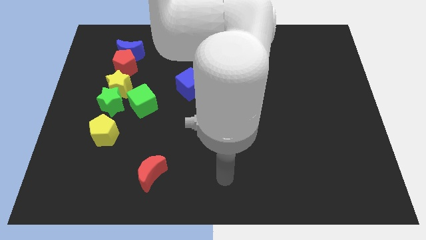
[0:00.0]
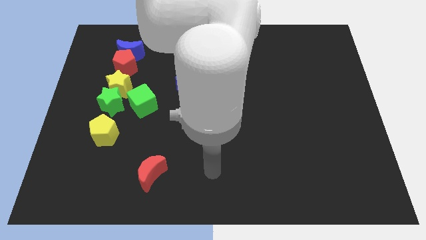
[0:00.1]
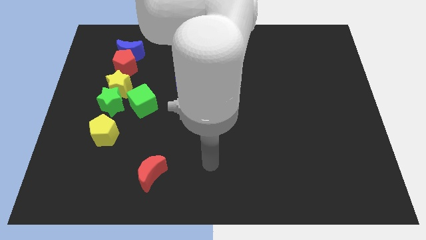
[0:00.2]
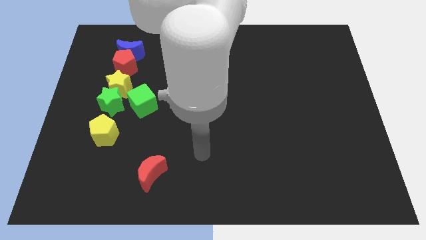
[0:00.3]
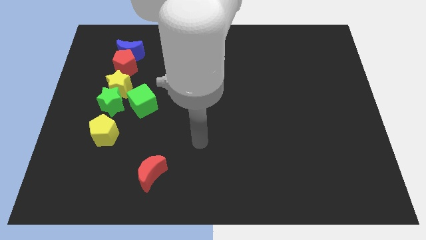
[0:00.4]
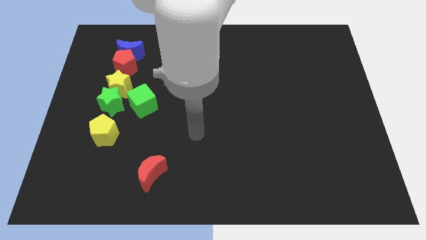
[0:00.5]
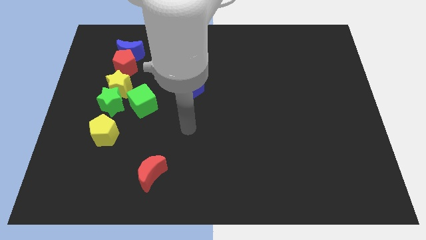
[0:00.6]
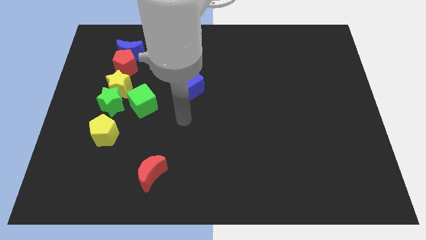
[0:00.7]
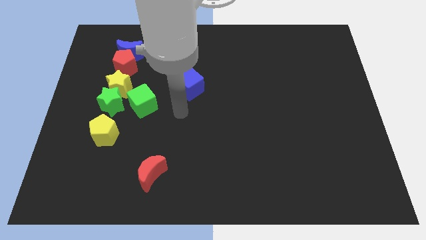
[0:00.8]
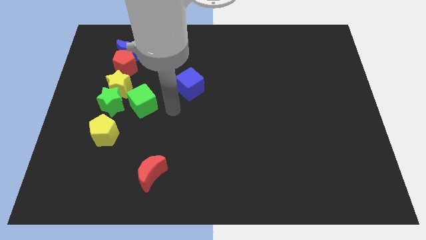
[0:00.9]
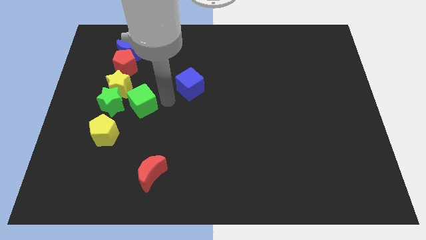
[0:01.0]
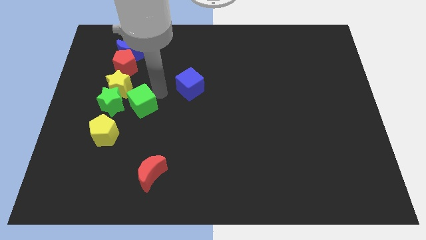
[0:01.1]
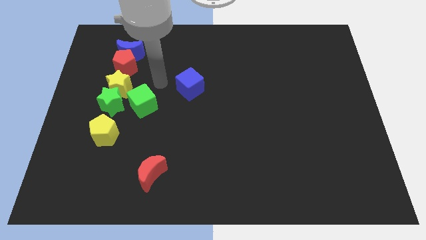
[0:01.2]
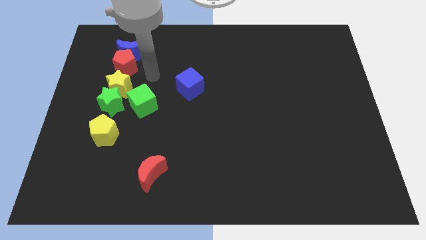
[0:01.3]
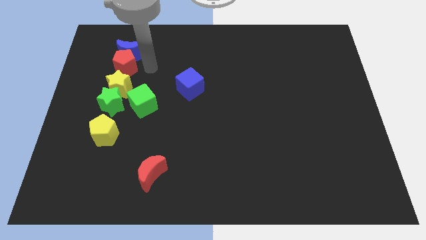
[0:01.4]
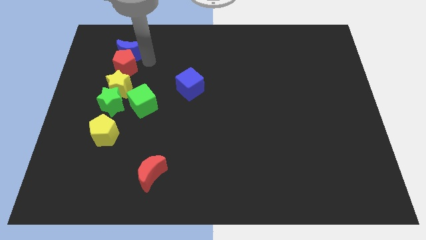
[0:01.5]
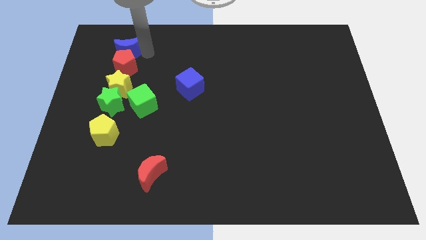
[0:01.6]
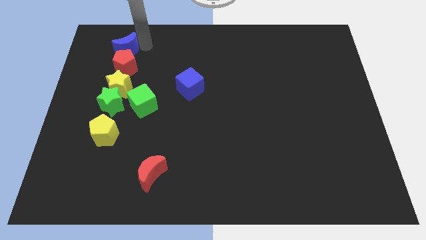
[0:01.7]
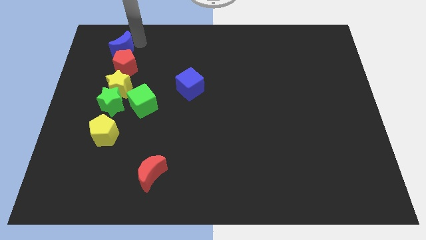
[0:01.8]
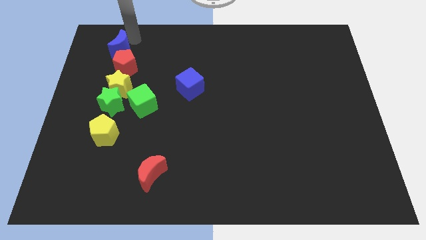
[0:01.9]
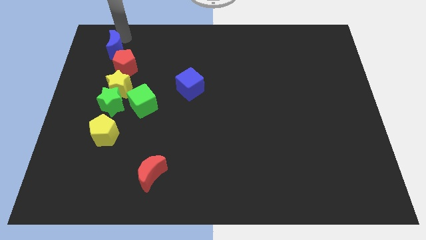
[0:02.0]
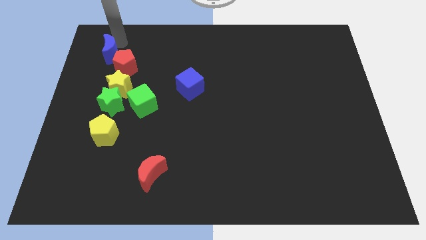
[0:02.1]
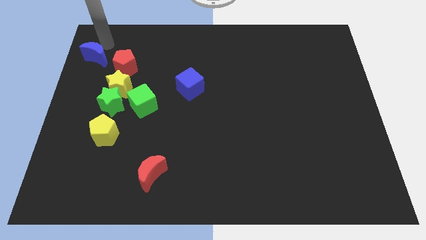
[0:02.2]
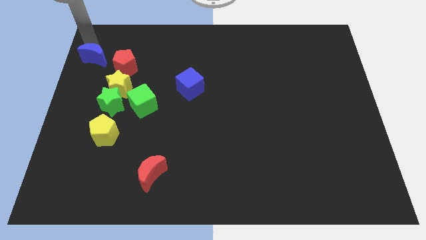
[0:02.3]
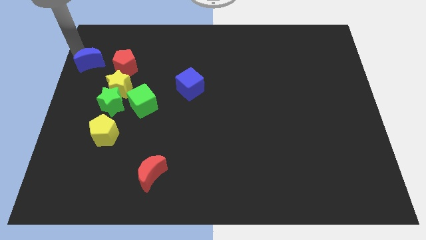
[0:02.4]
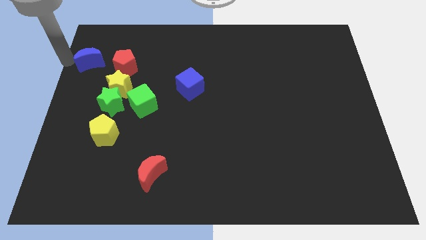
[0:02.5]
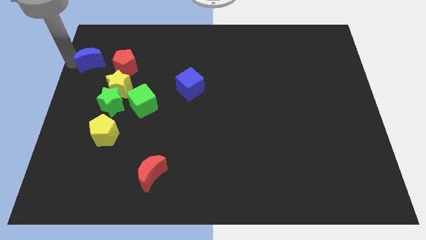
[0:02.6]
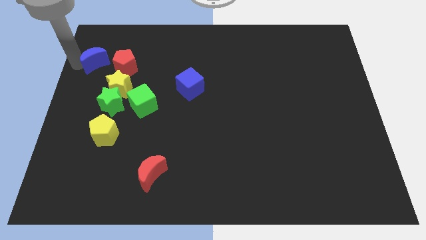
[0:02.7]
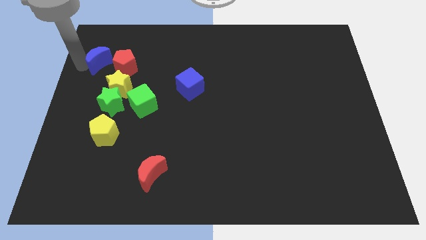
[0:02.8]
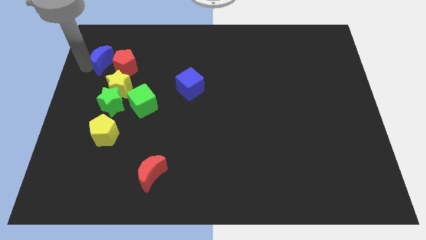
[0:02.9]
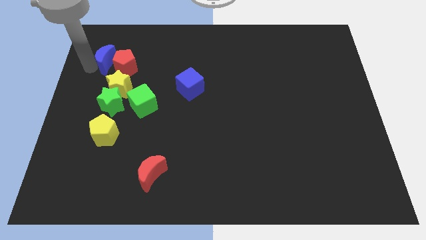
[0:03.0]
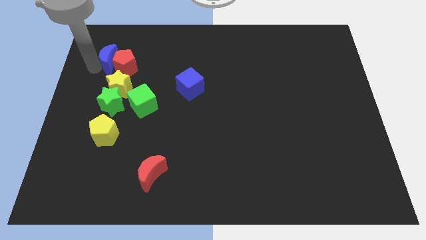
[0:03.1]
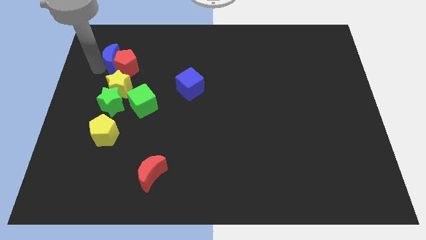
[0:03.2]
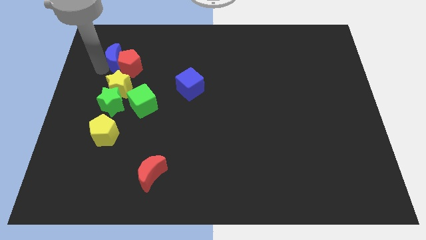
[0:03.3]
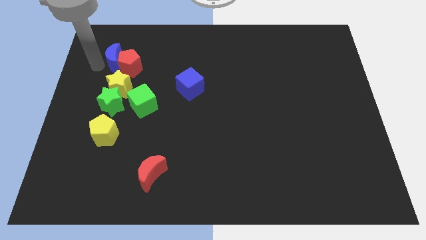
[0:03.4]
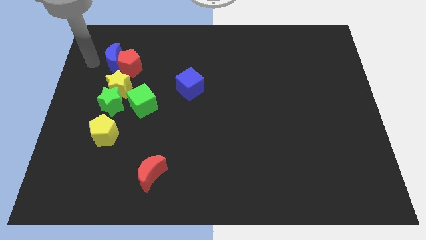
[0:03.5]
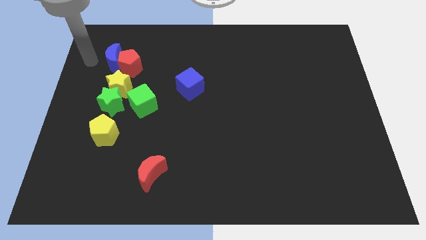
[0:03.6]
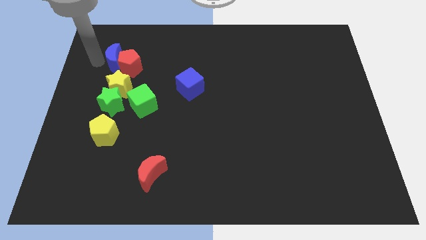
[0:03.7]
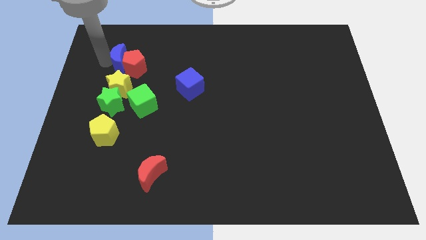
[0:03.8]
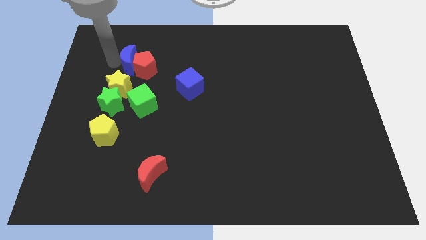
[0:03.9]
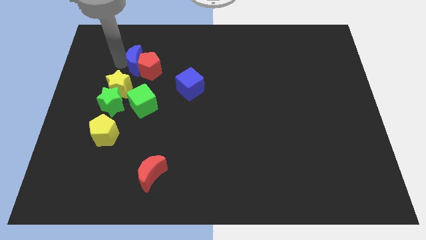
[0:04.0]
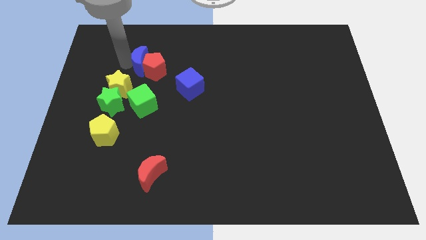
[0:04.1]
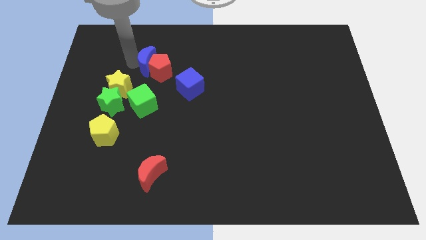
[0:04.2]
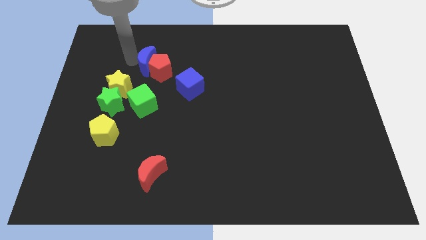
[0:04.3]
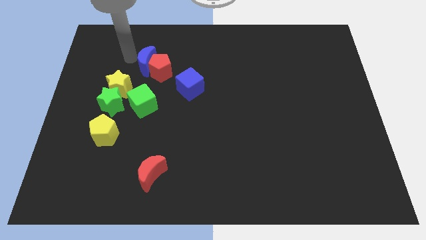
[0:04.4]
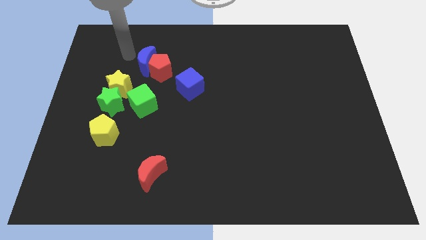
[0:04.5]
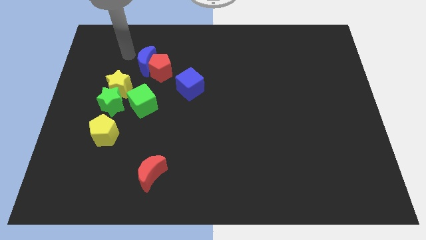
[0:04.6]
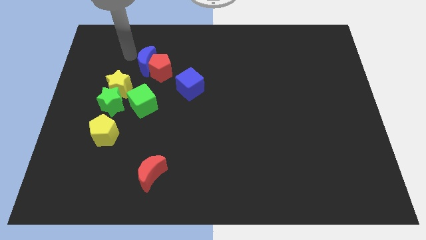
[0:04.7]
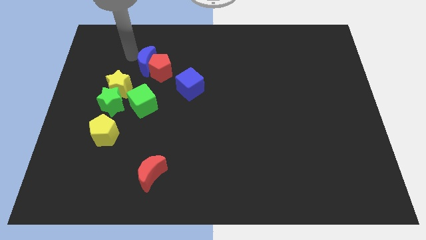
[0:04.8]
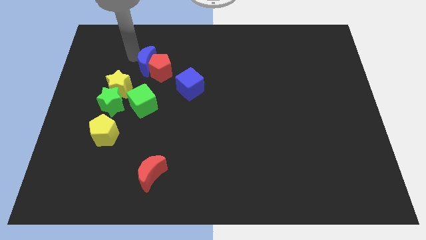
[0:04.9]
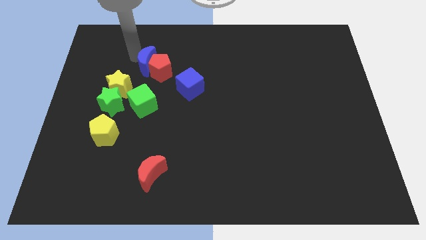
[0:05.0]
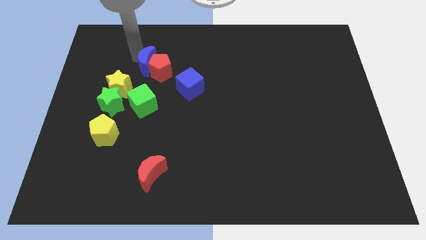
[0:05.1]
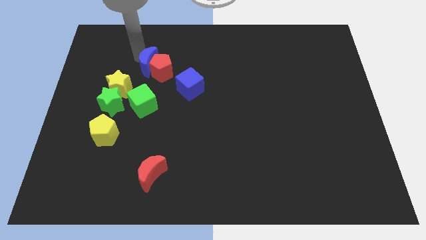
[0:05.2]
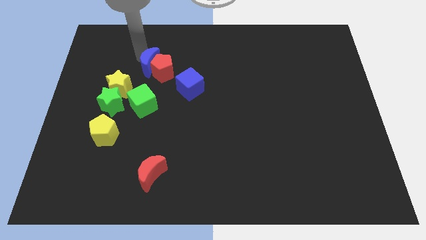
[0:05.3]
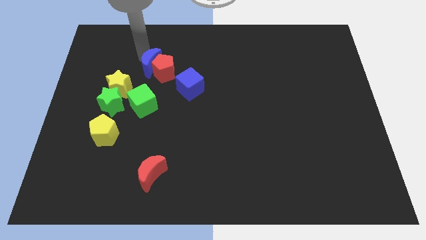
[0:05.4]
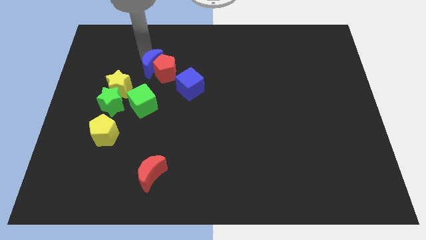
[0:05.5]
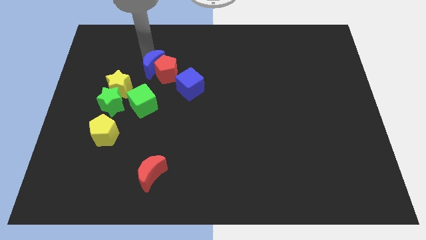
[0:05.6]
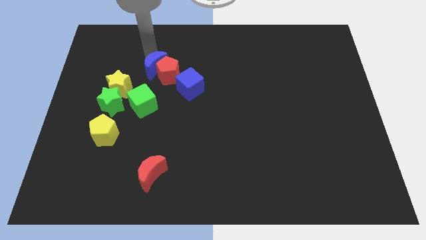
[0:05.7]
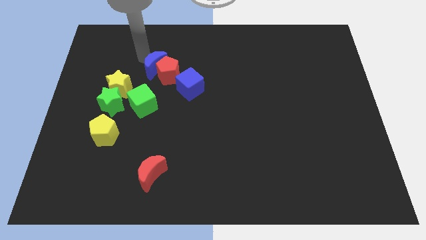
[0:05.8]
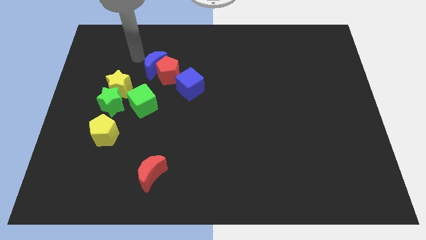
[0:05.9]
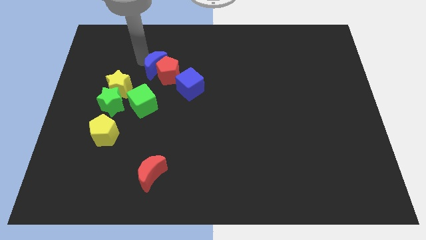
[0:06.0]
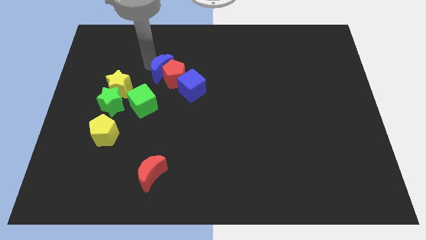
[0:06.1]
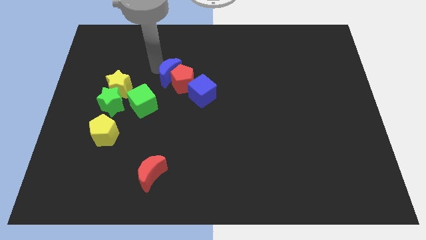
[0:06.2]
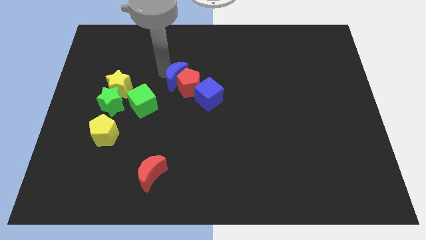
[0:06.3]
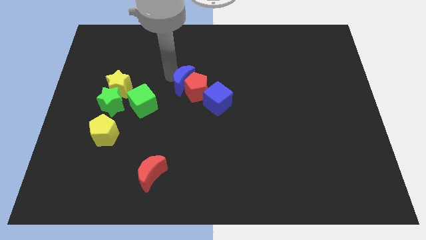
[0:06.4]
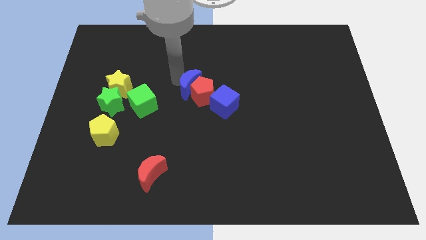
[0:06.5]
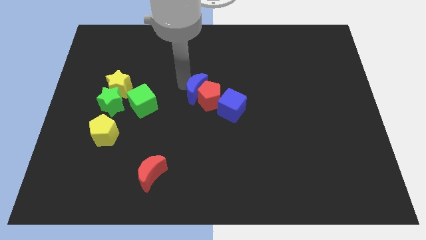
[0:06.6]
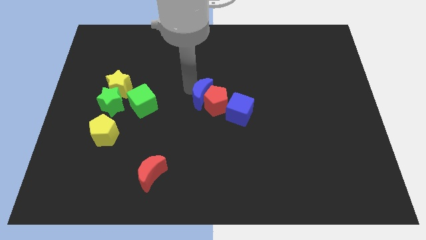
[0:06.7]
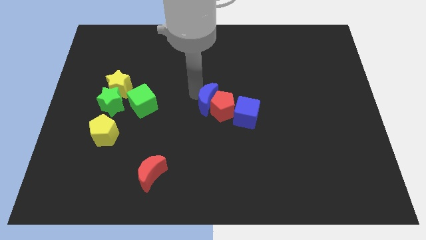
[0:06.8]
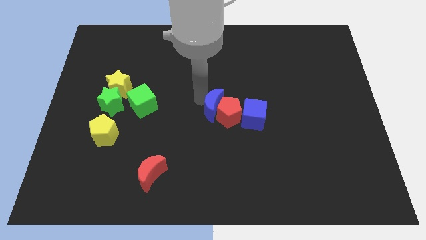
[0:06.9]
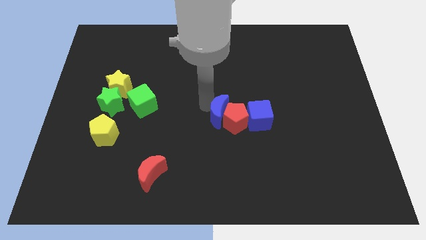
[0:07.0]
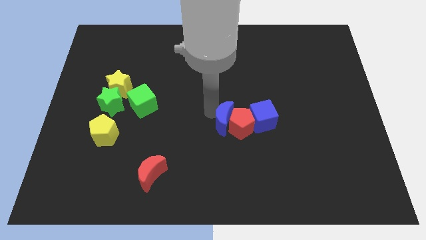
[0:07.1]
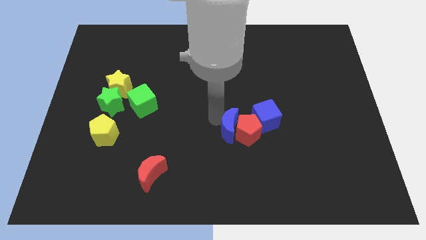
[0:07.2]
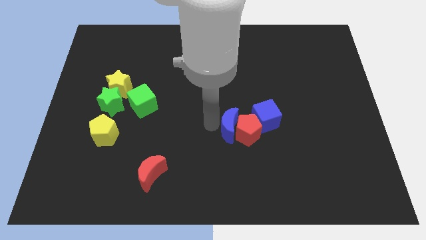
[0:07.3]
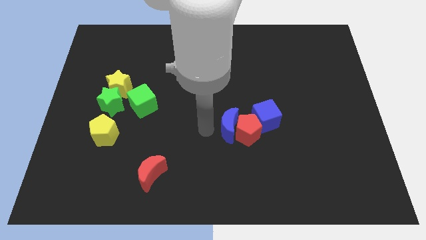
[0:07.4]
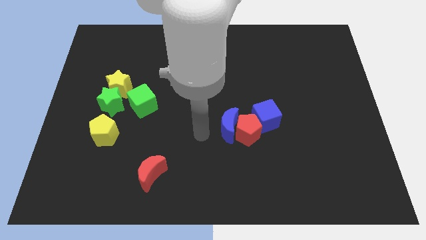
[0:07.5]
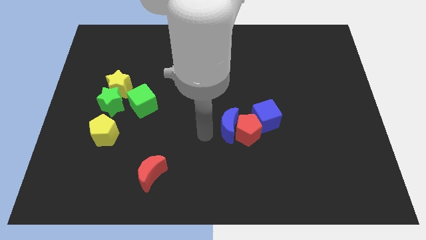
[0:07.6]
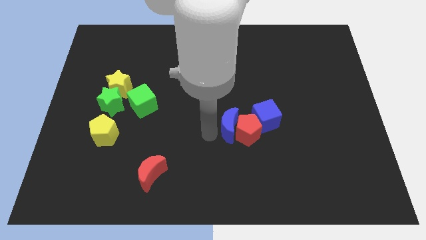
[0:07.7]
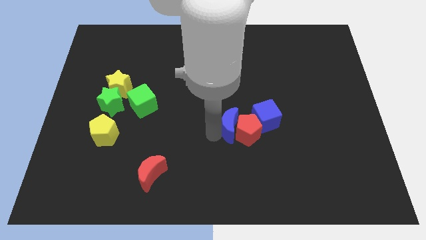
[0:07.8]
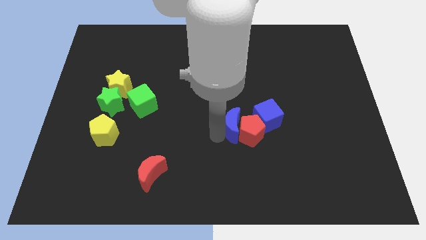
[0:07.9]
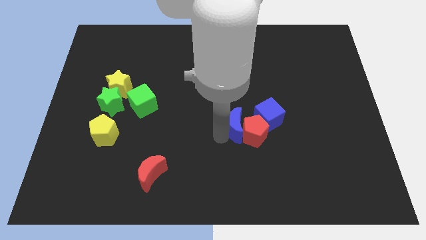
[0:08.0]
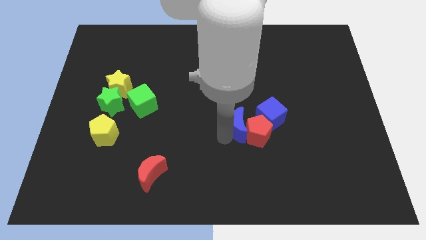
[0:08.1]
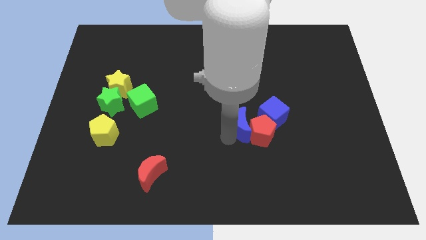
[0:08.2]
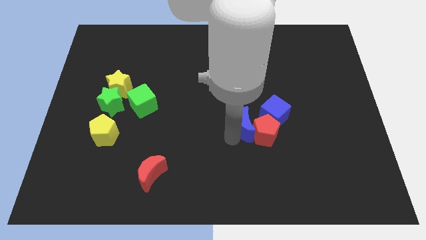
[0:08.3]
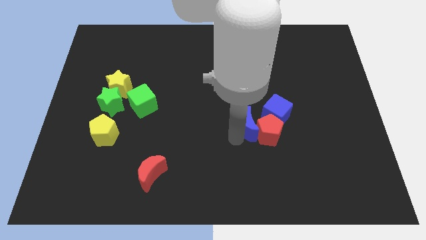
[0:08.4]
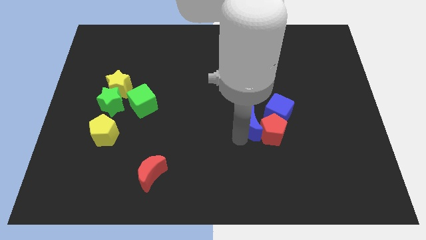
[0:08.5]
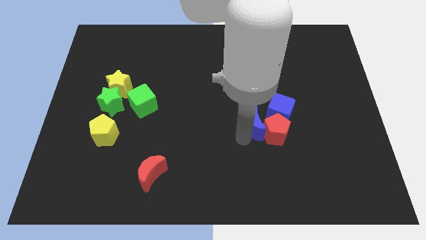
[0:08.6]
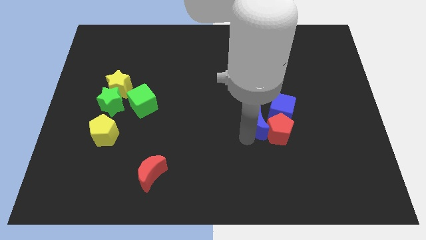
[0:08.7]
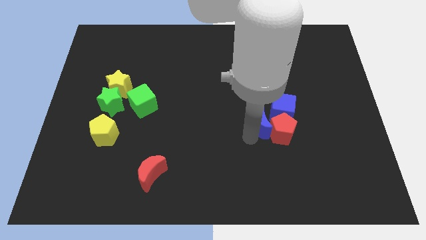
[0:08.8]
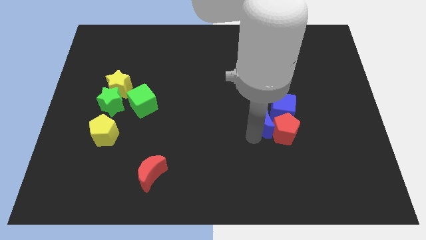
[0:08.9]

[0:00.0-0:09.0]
push the blue moon towards the blue cube
